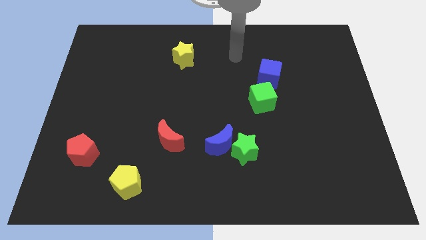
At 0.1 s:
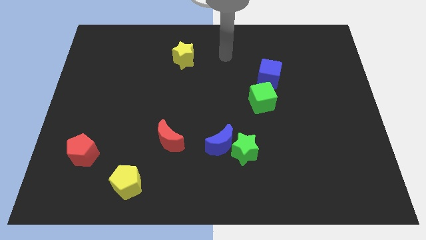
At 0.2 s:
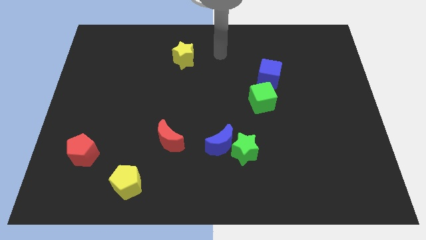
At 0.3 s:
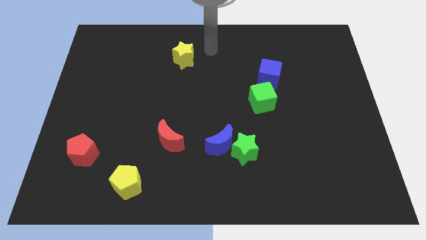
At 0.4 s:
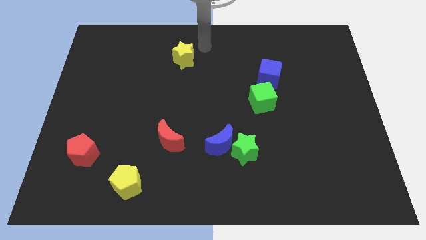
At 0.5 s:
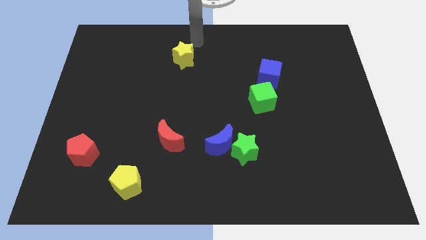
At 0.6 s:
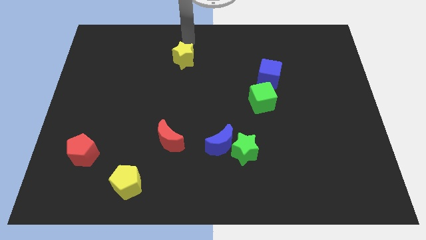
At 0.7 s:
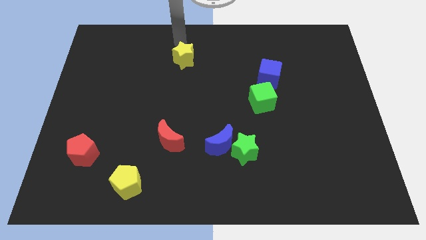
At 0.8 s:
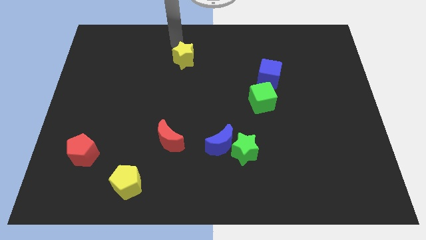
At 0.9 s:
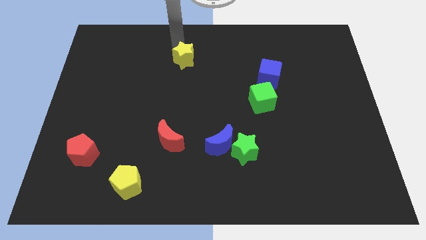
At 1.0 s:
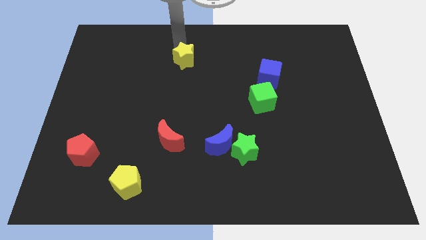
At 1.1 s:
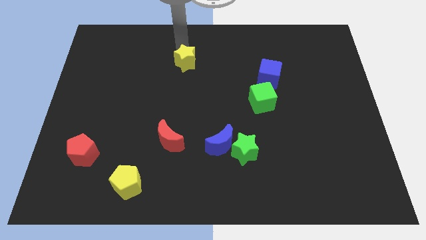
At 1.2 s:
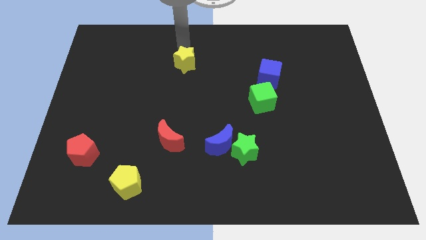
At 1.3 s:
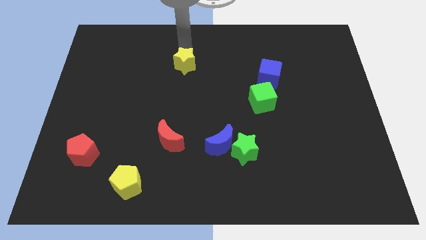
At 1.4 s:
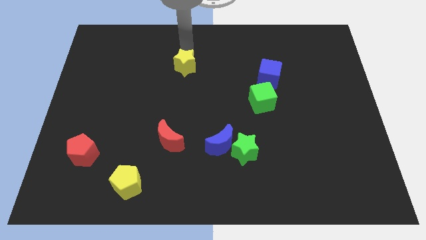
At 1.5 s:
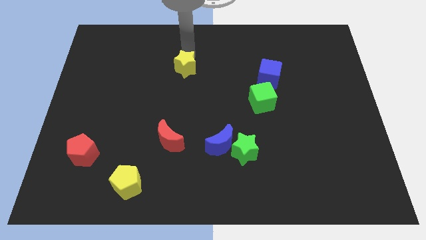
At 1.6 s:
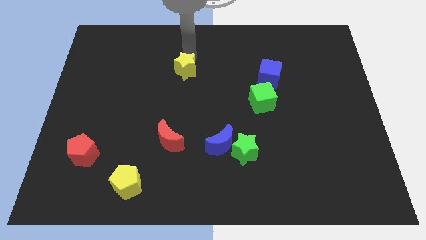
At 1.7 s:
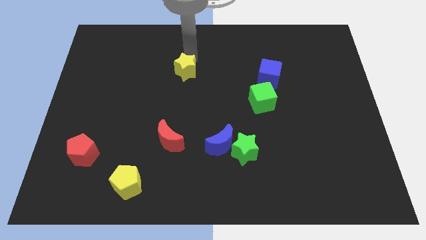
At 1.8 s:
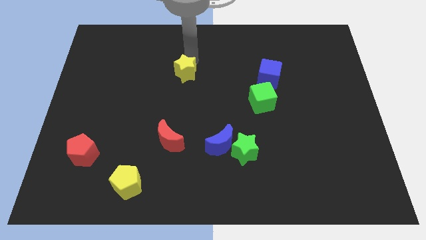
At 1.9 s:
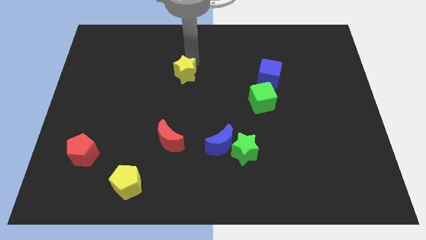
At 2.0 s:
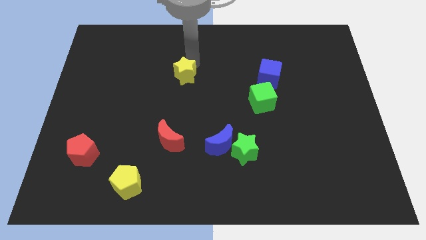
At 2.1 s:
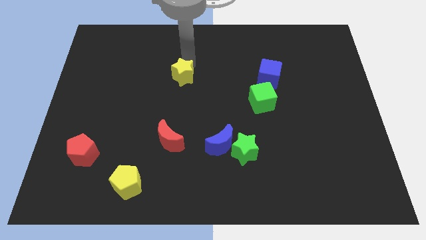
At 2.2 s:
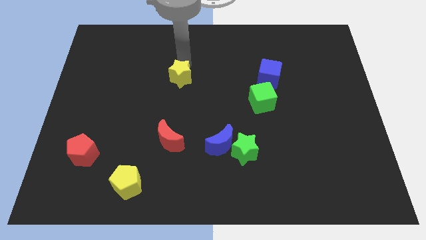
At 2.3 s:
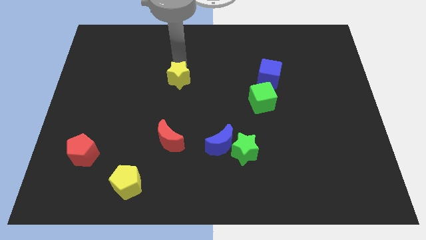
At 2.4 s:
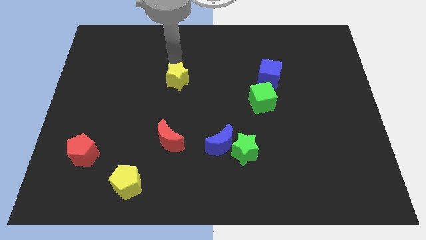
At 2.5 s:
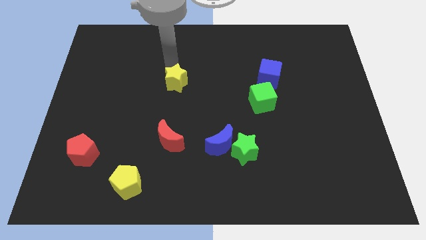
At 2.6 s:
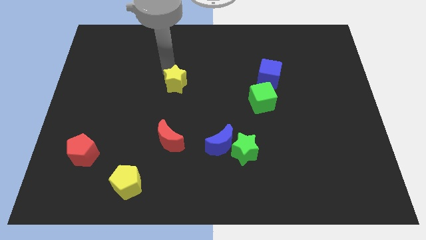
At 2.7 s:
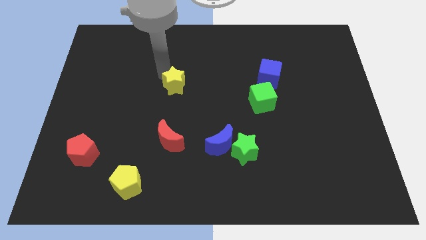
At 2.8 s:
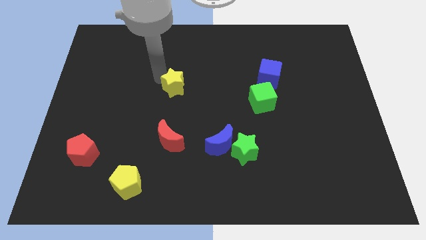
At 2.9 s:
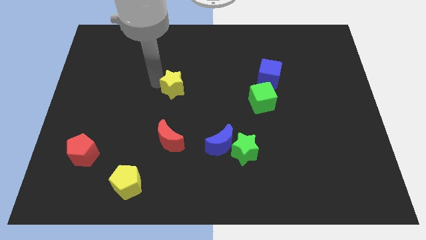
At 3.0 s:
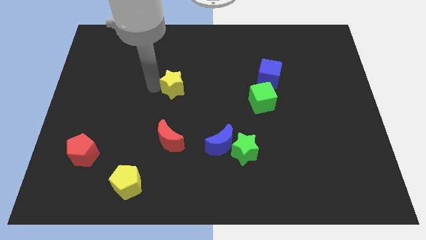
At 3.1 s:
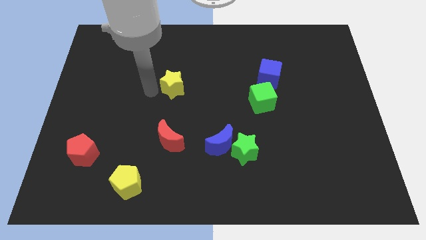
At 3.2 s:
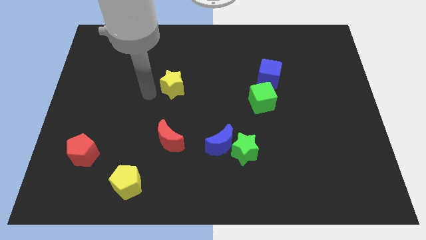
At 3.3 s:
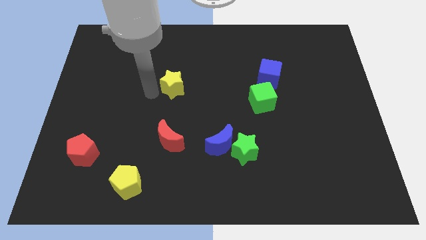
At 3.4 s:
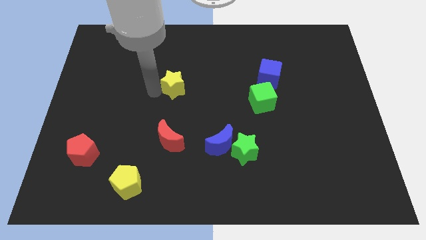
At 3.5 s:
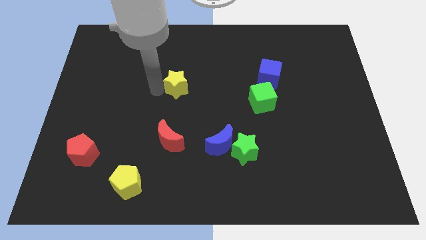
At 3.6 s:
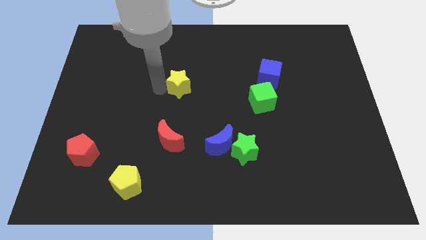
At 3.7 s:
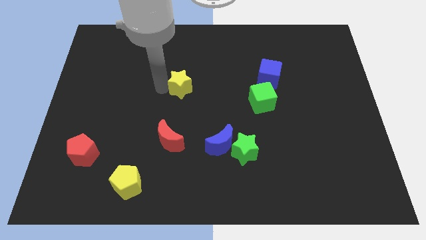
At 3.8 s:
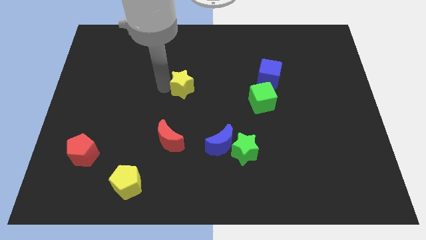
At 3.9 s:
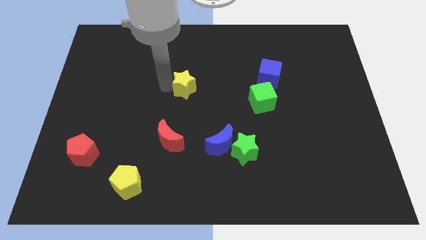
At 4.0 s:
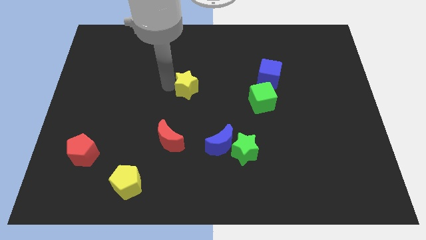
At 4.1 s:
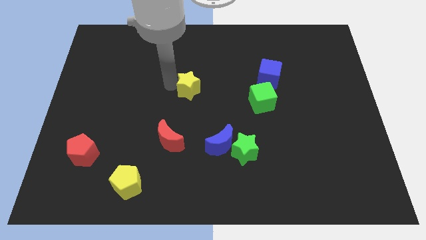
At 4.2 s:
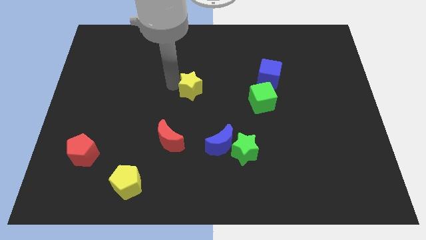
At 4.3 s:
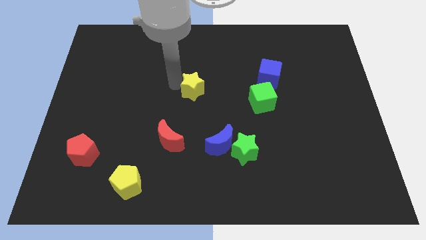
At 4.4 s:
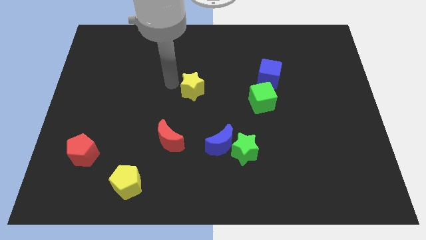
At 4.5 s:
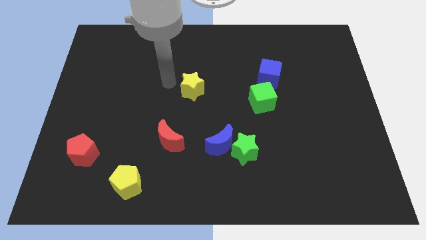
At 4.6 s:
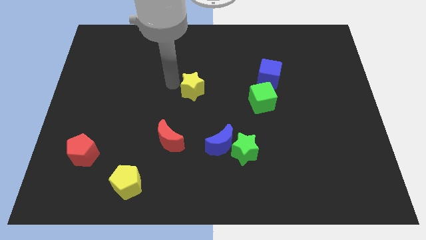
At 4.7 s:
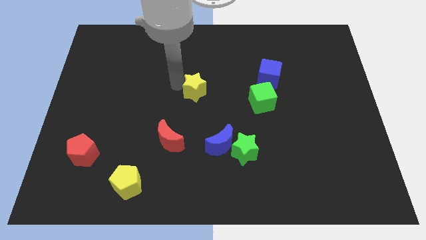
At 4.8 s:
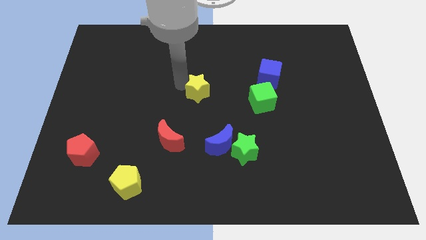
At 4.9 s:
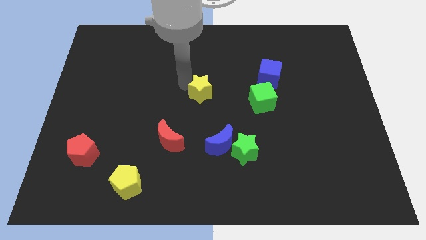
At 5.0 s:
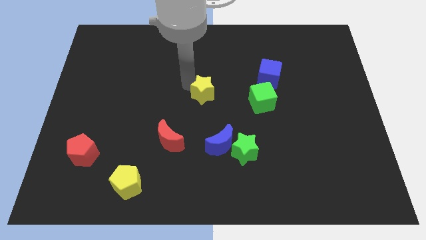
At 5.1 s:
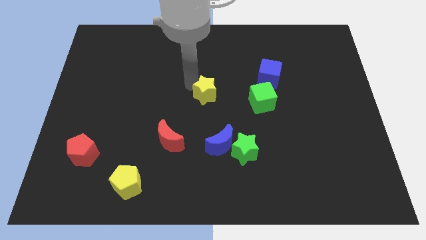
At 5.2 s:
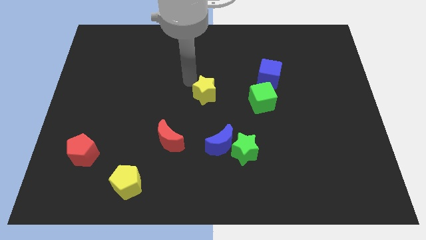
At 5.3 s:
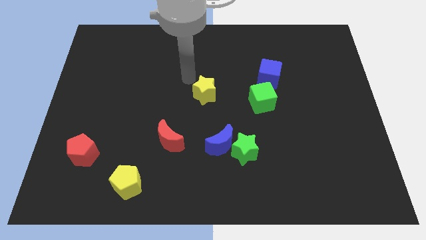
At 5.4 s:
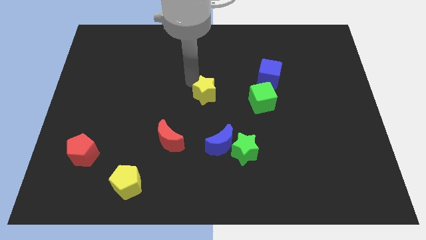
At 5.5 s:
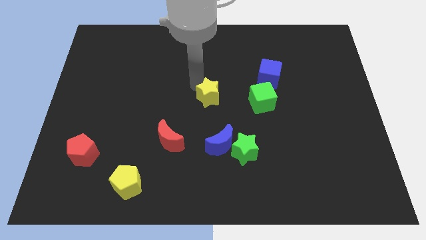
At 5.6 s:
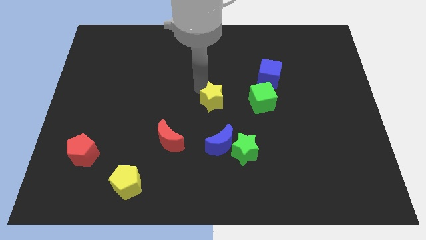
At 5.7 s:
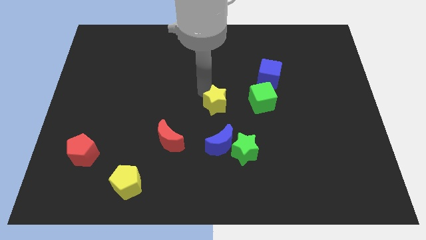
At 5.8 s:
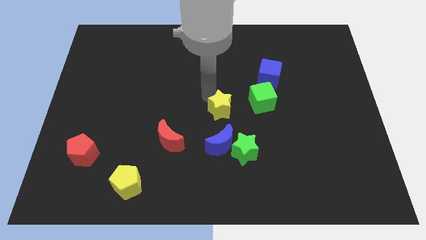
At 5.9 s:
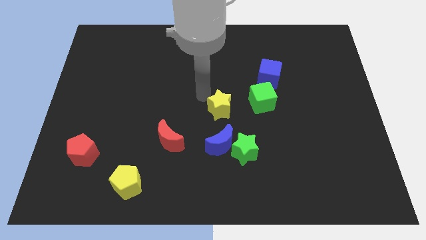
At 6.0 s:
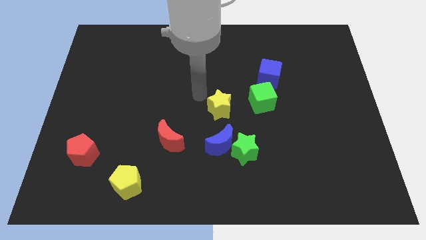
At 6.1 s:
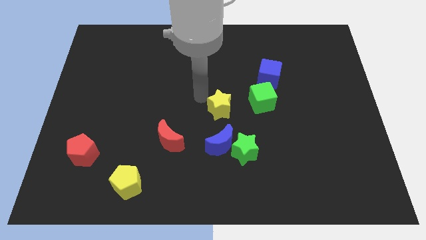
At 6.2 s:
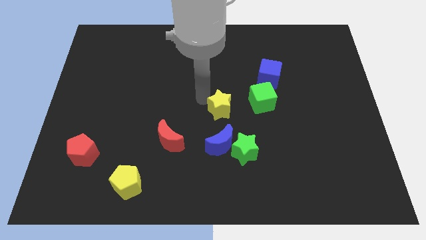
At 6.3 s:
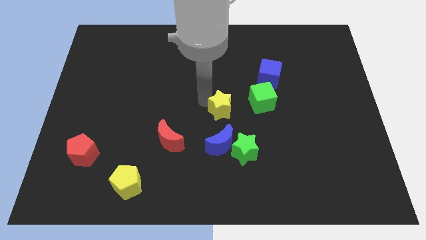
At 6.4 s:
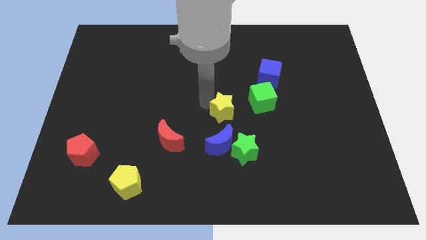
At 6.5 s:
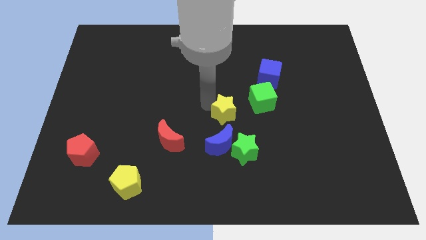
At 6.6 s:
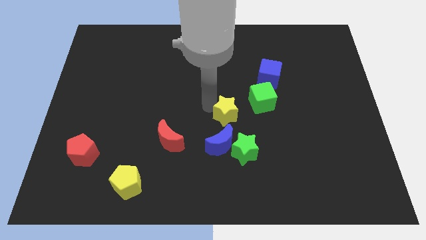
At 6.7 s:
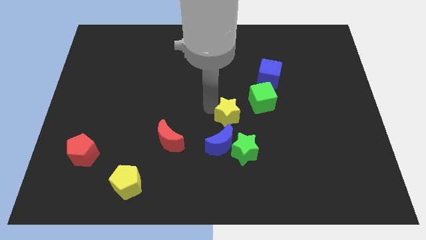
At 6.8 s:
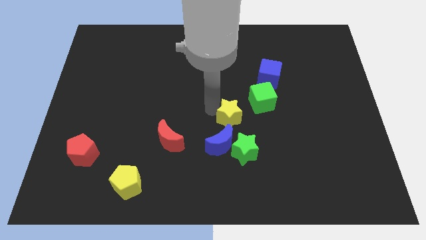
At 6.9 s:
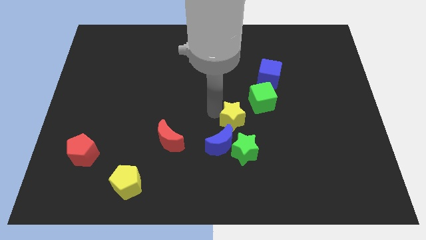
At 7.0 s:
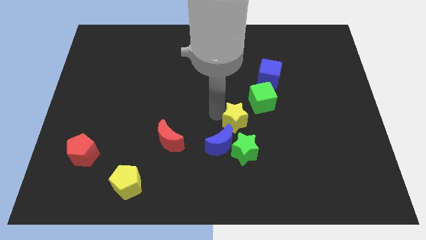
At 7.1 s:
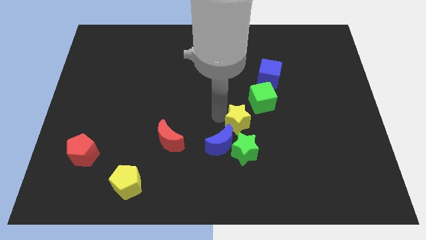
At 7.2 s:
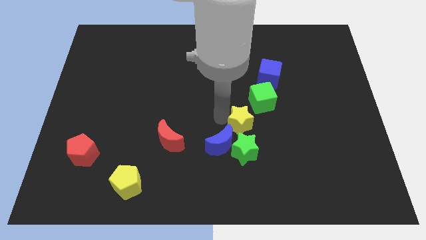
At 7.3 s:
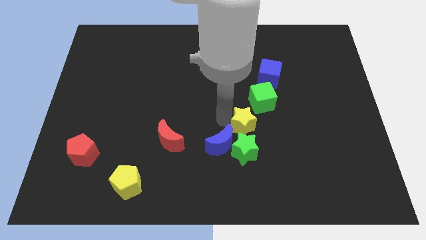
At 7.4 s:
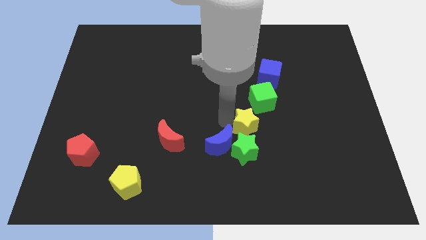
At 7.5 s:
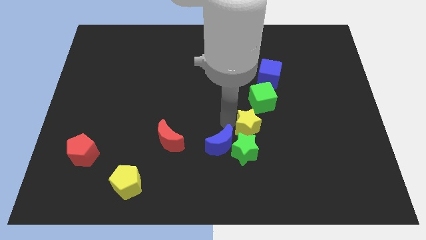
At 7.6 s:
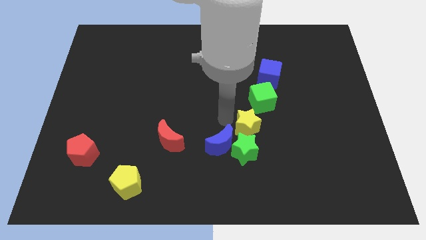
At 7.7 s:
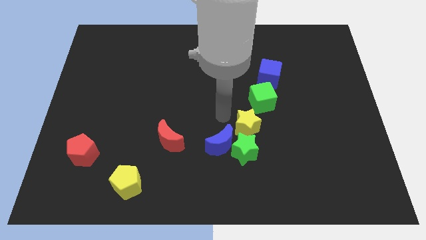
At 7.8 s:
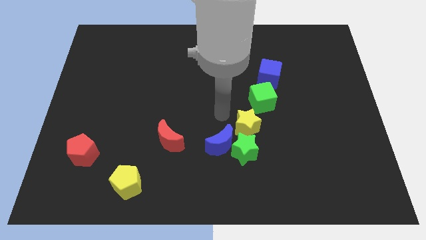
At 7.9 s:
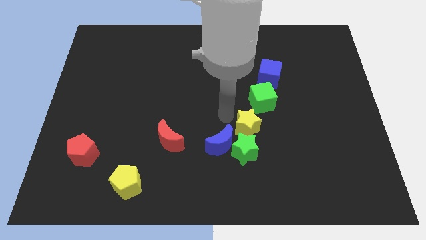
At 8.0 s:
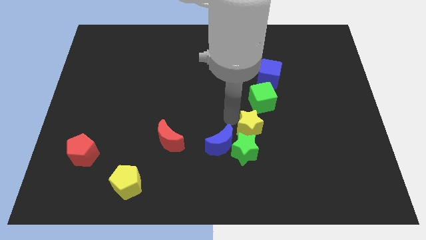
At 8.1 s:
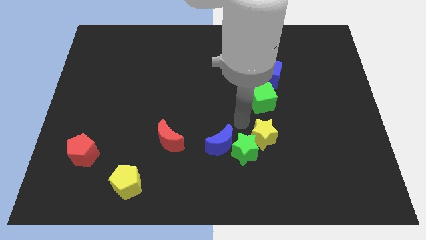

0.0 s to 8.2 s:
move the yellow star to the right side of the green star
